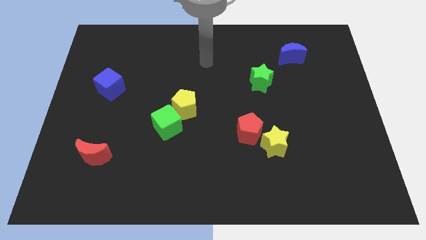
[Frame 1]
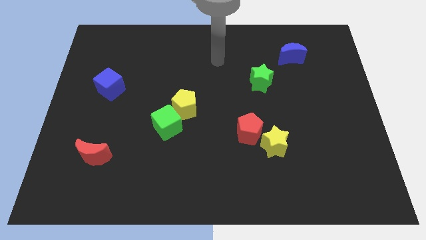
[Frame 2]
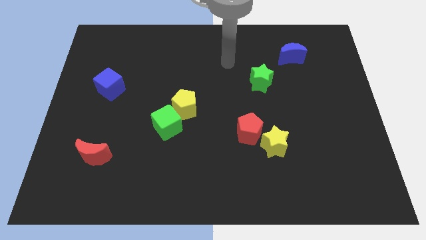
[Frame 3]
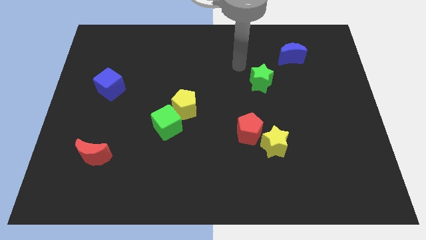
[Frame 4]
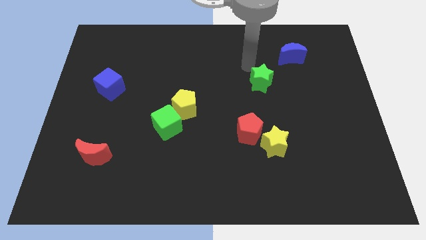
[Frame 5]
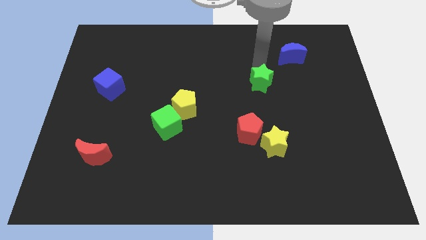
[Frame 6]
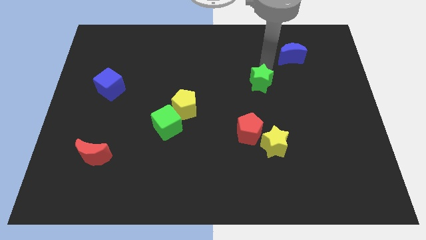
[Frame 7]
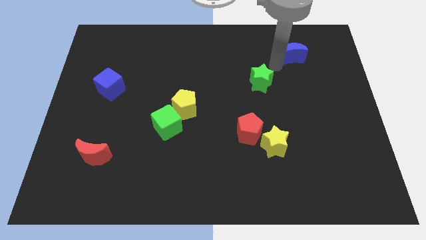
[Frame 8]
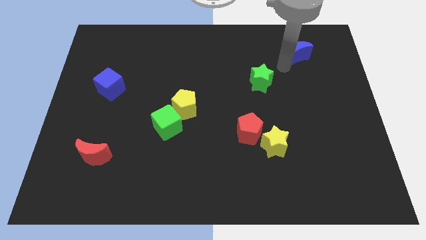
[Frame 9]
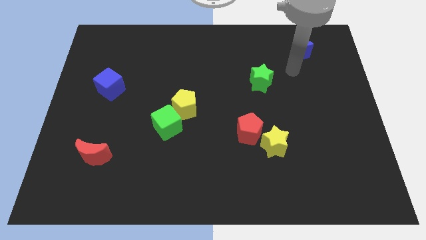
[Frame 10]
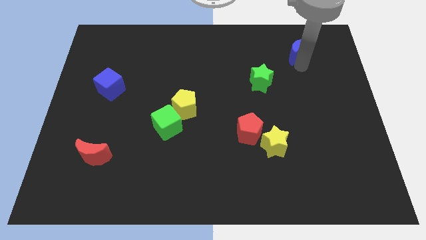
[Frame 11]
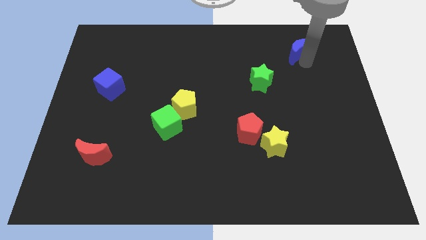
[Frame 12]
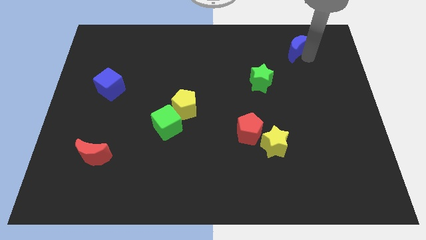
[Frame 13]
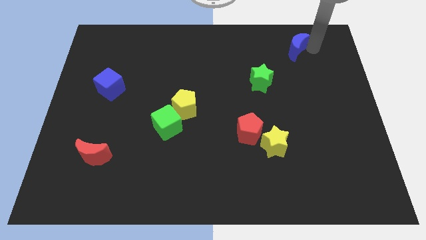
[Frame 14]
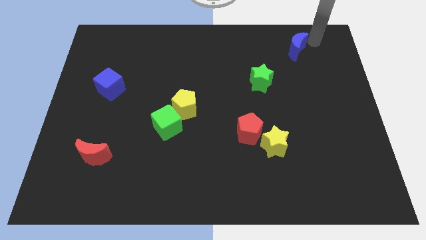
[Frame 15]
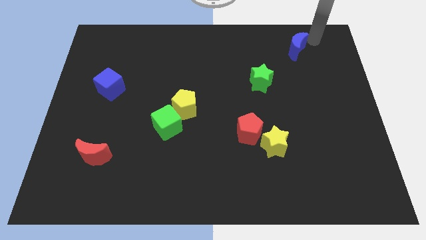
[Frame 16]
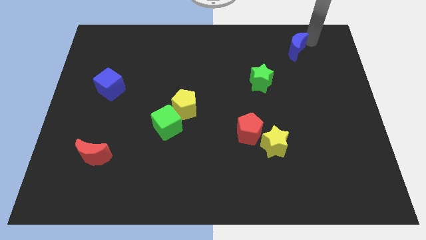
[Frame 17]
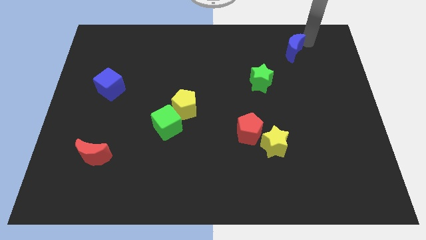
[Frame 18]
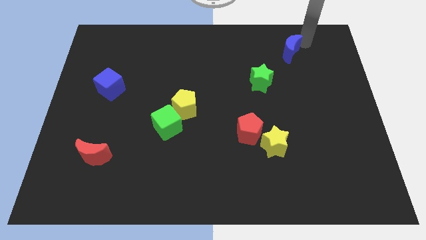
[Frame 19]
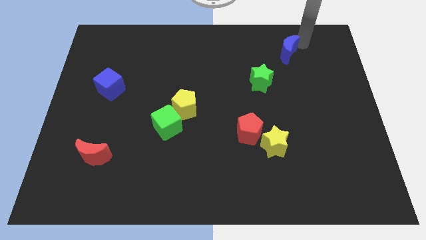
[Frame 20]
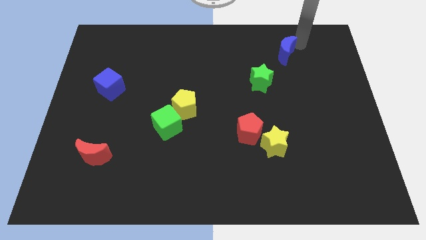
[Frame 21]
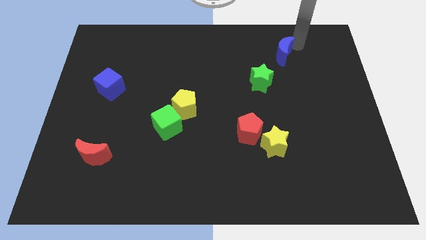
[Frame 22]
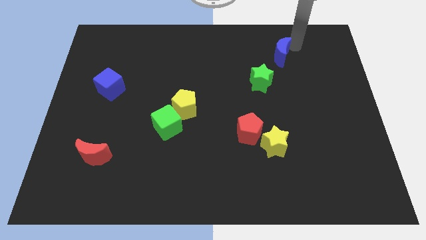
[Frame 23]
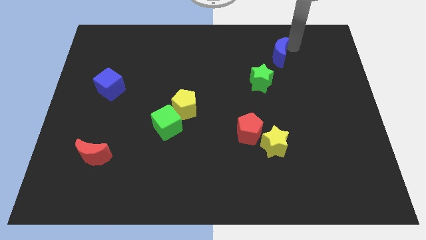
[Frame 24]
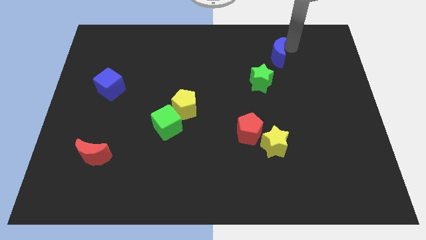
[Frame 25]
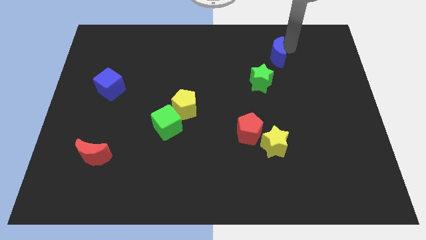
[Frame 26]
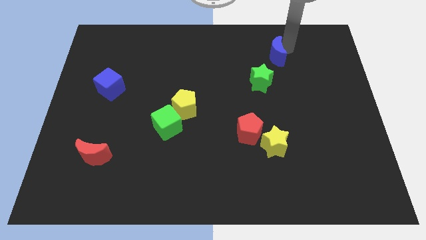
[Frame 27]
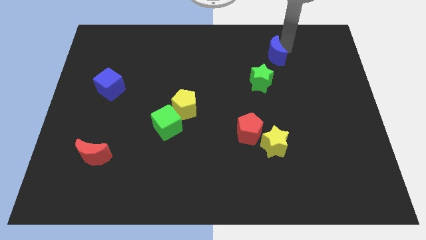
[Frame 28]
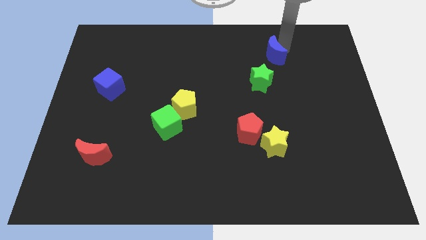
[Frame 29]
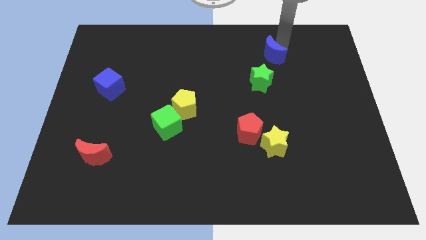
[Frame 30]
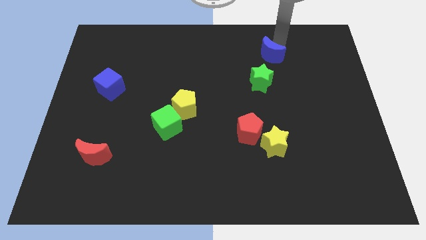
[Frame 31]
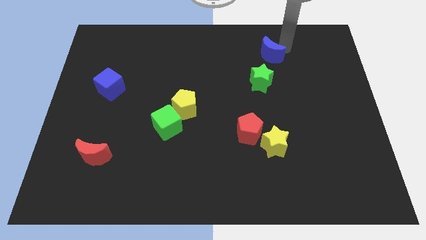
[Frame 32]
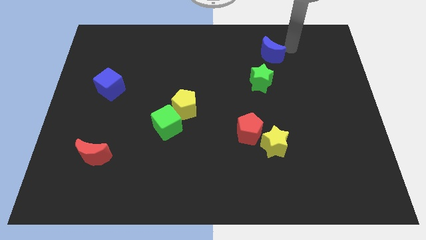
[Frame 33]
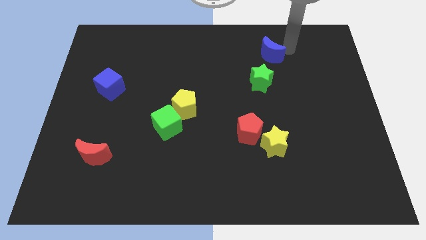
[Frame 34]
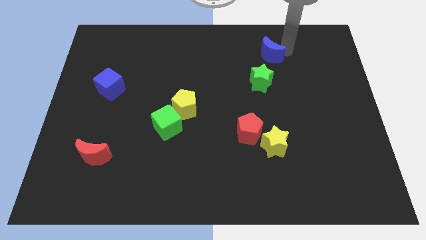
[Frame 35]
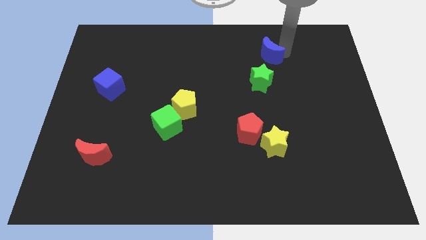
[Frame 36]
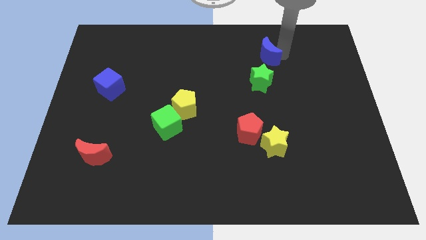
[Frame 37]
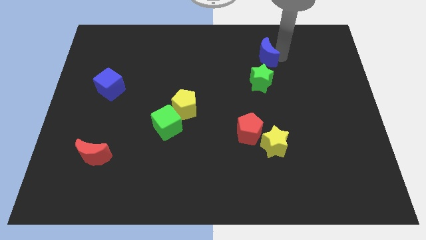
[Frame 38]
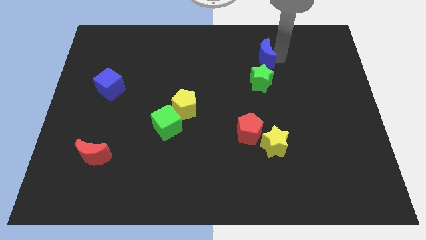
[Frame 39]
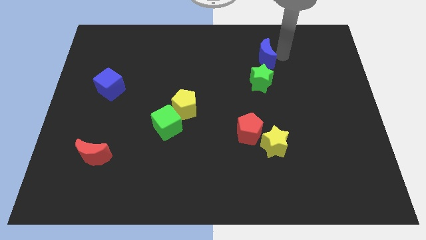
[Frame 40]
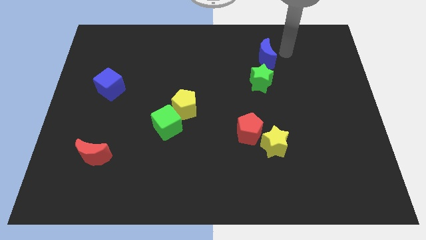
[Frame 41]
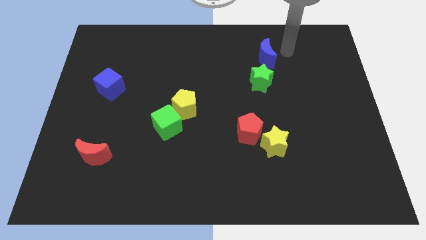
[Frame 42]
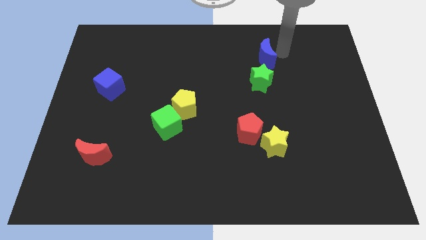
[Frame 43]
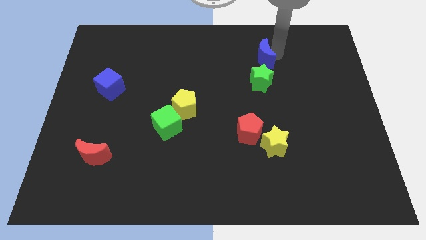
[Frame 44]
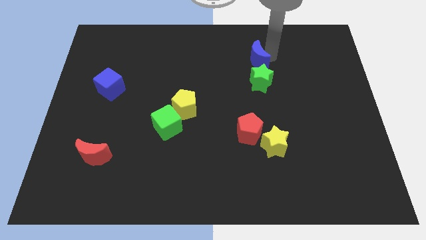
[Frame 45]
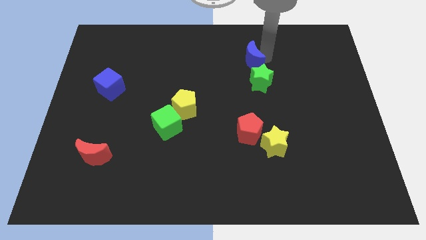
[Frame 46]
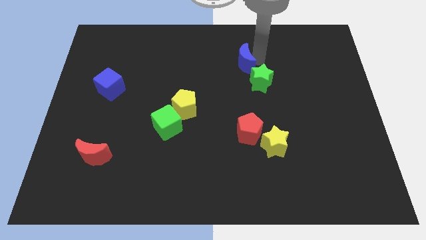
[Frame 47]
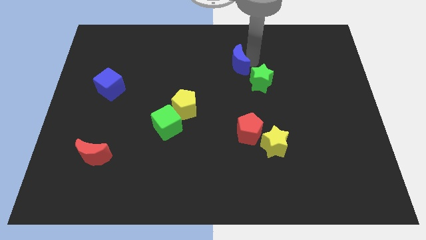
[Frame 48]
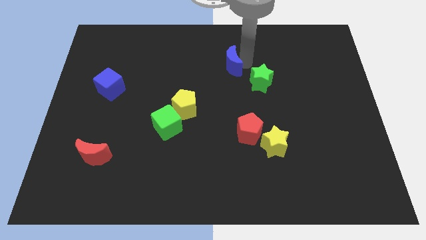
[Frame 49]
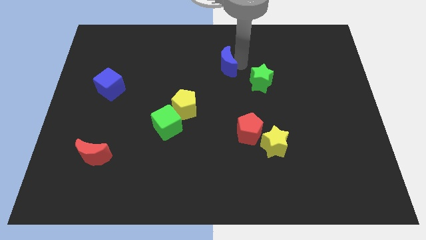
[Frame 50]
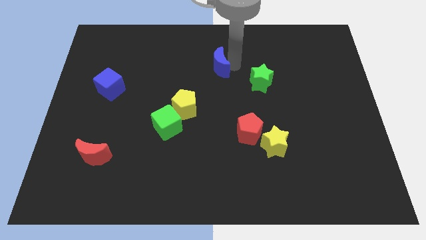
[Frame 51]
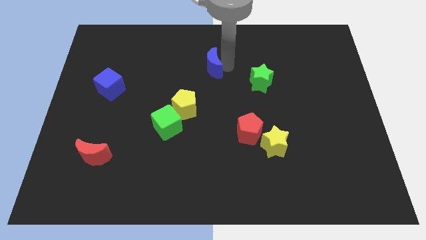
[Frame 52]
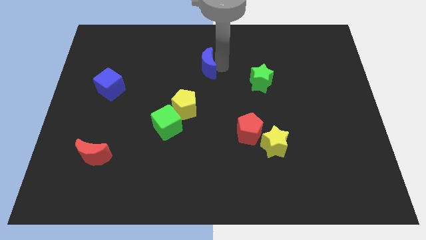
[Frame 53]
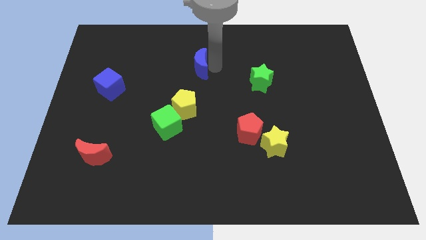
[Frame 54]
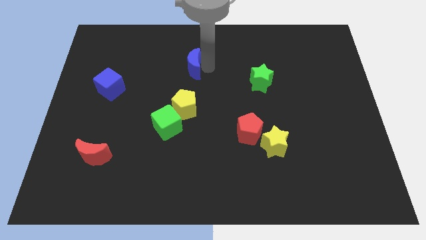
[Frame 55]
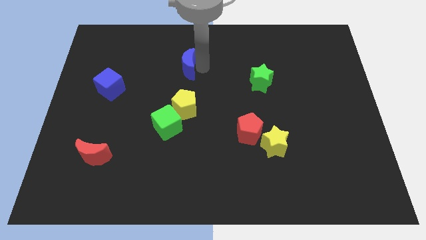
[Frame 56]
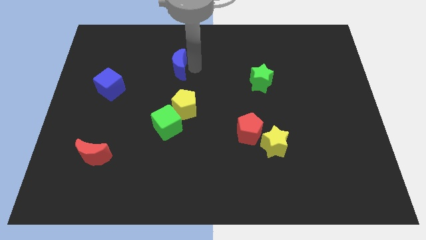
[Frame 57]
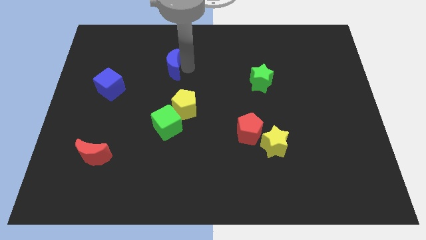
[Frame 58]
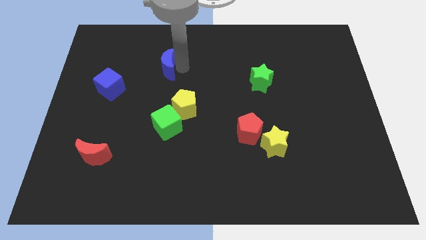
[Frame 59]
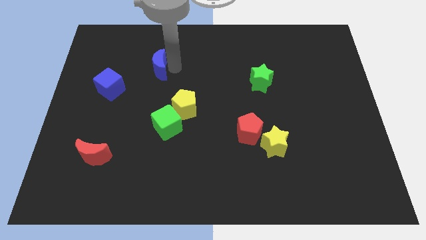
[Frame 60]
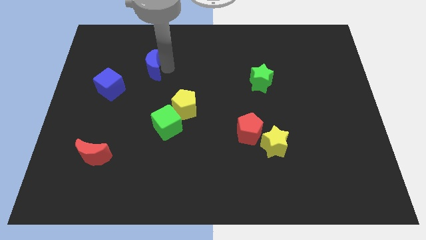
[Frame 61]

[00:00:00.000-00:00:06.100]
move the blue moon diagonally up and to the right of the blue cube

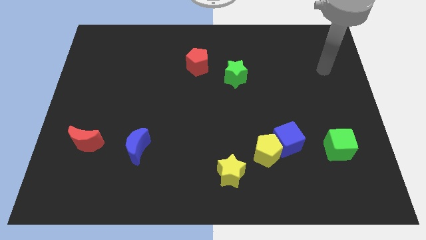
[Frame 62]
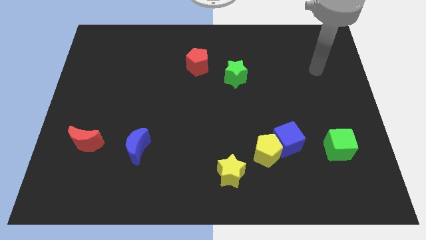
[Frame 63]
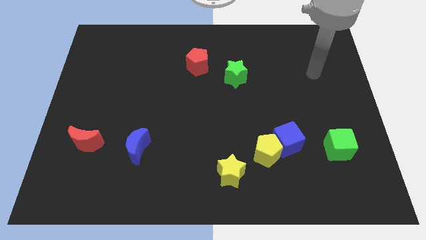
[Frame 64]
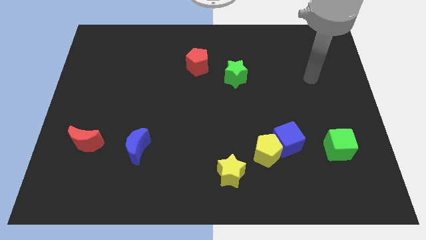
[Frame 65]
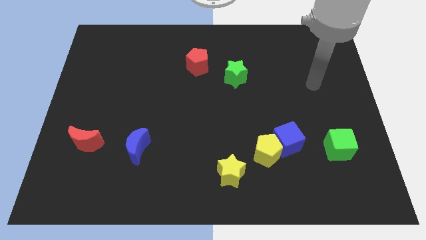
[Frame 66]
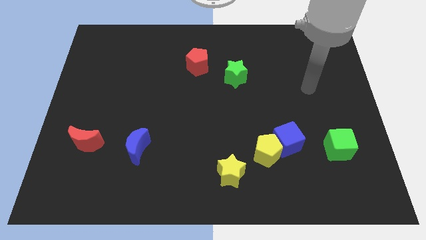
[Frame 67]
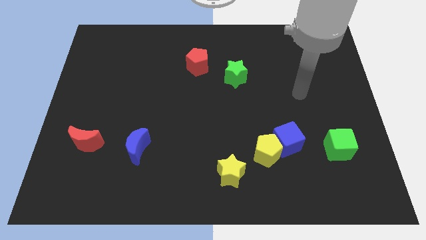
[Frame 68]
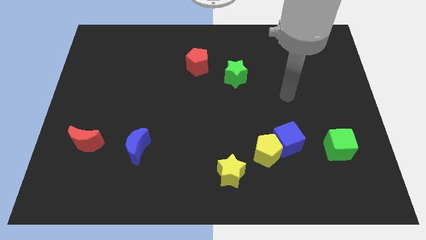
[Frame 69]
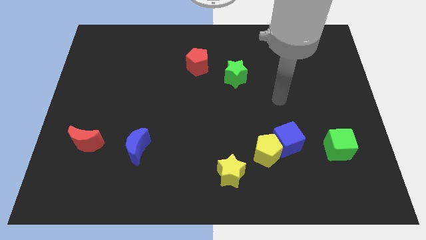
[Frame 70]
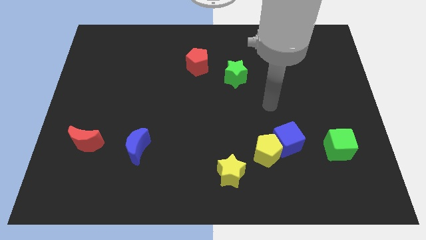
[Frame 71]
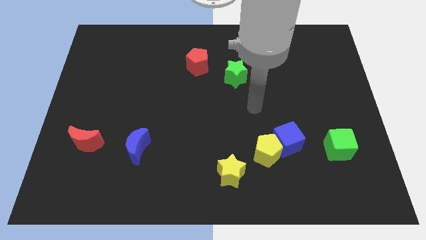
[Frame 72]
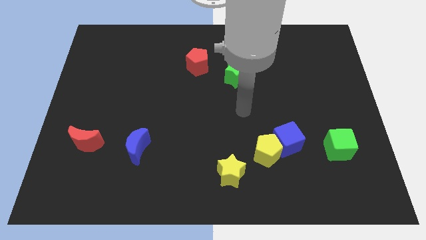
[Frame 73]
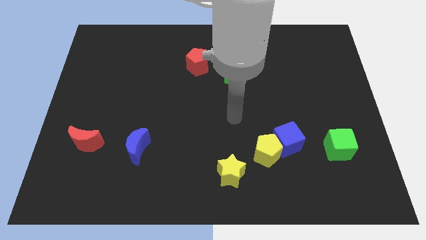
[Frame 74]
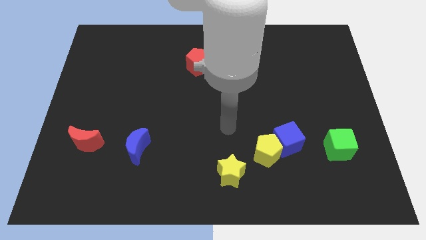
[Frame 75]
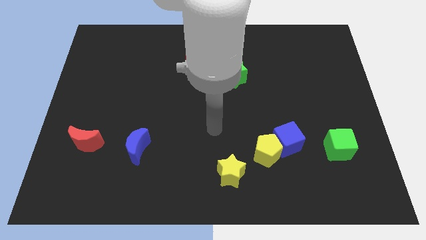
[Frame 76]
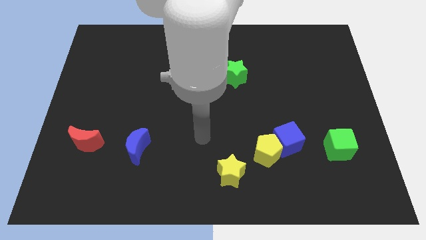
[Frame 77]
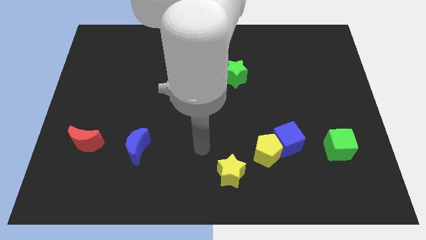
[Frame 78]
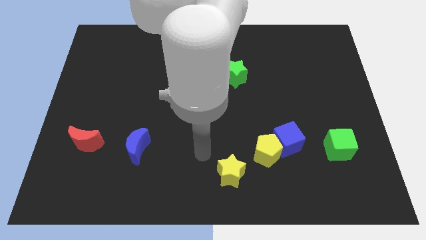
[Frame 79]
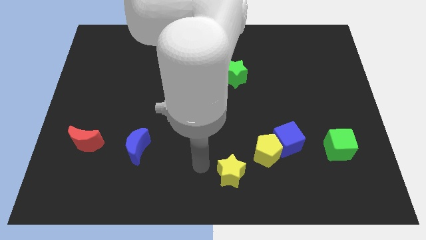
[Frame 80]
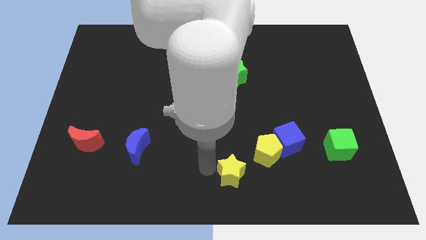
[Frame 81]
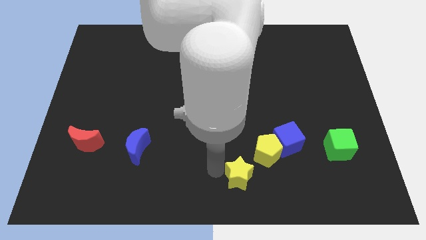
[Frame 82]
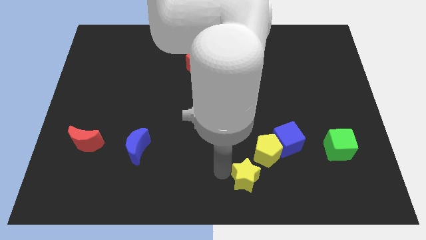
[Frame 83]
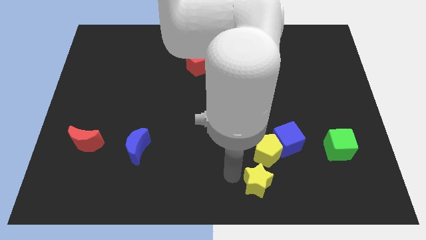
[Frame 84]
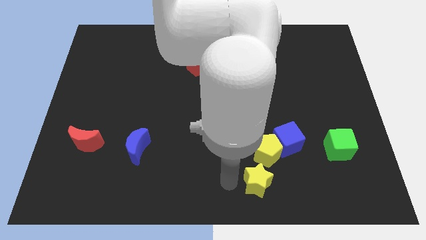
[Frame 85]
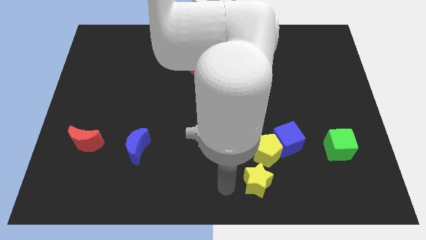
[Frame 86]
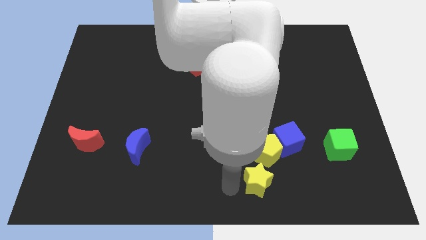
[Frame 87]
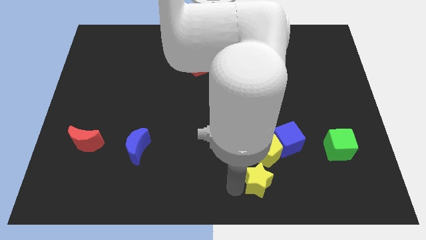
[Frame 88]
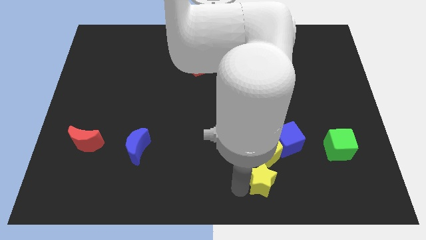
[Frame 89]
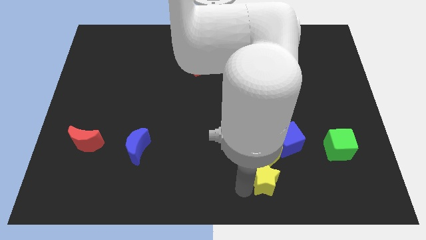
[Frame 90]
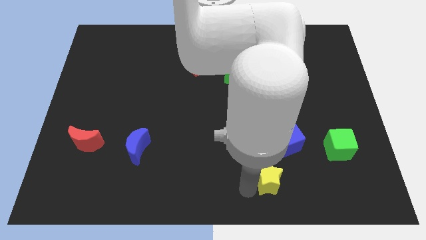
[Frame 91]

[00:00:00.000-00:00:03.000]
move the yellow star diagonally down and to the right of the yellow pentagon
